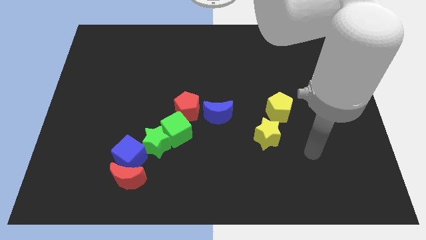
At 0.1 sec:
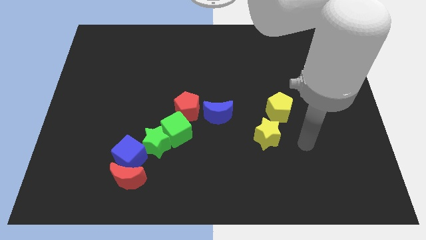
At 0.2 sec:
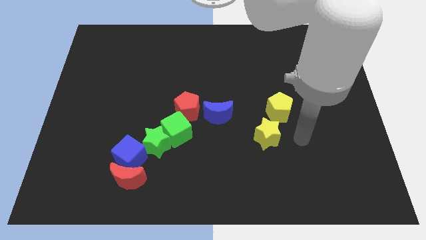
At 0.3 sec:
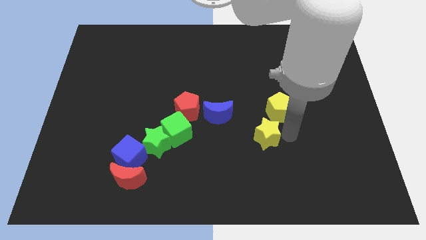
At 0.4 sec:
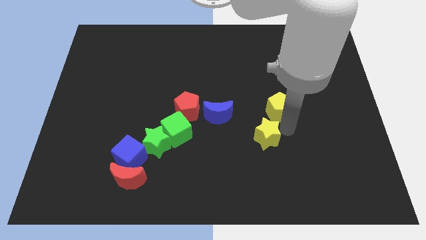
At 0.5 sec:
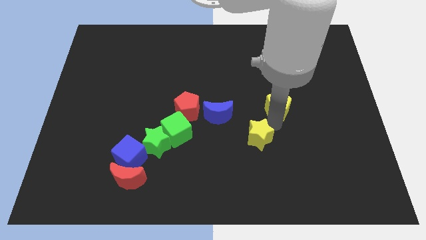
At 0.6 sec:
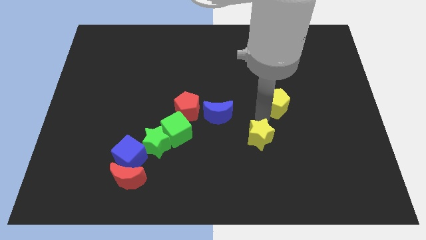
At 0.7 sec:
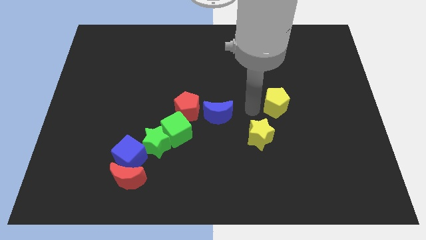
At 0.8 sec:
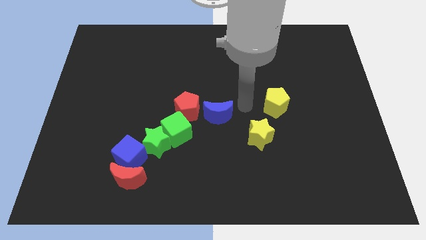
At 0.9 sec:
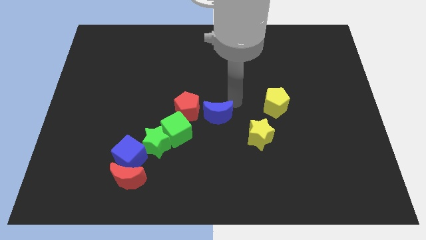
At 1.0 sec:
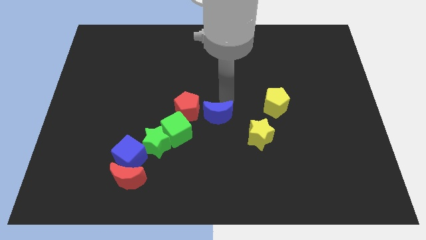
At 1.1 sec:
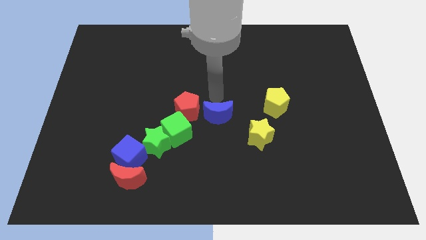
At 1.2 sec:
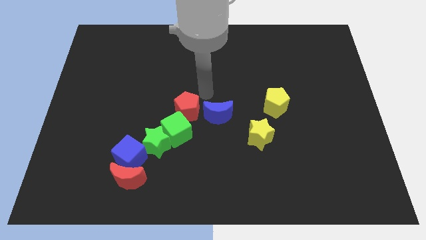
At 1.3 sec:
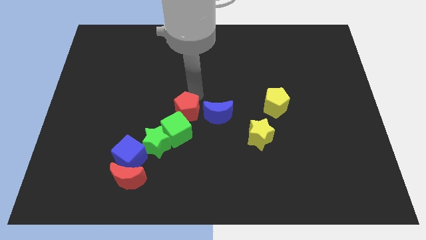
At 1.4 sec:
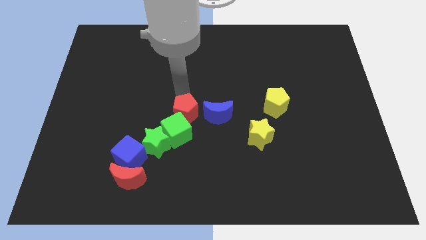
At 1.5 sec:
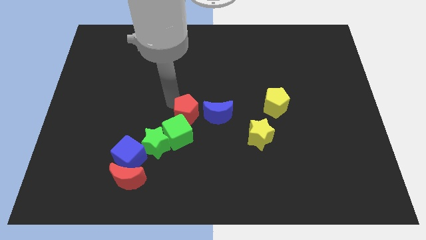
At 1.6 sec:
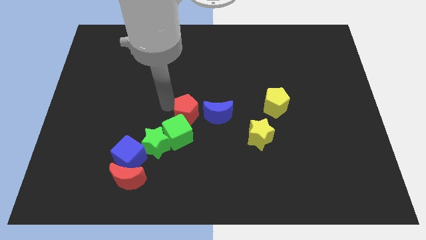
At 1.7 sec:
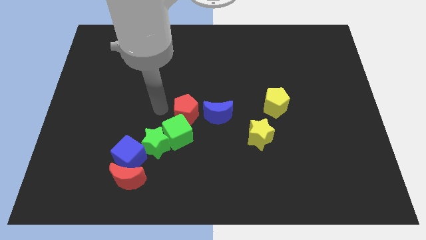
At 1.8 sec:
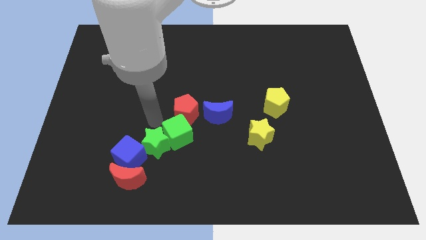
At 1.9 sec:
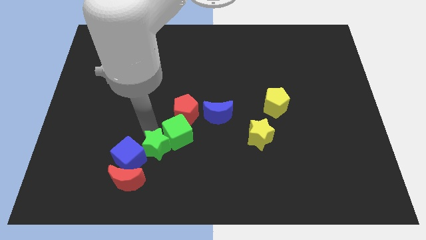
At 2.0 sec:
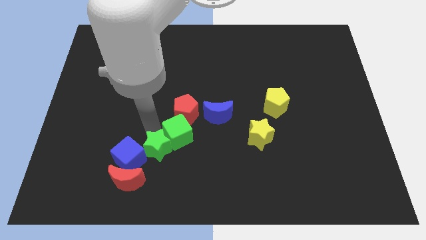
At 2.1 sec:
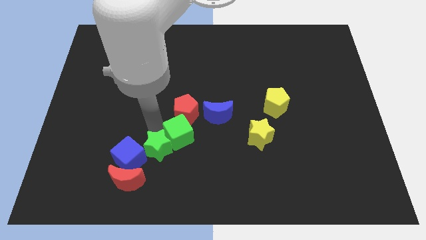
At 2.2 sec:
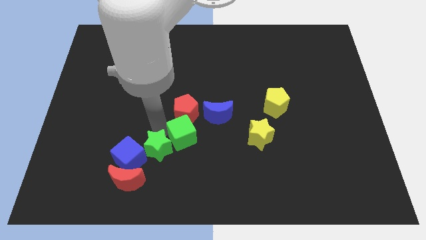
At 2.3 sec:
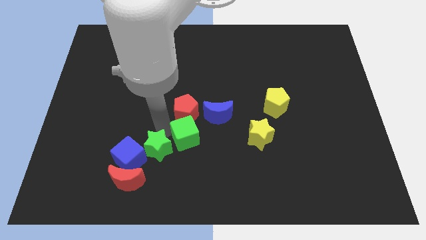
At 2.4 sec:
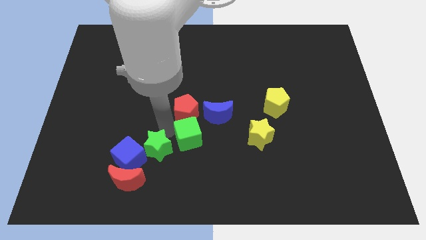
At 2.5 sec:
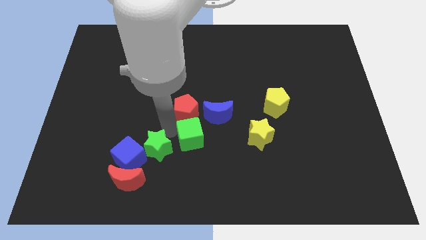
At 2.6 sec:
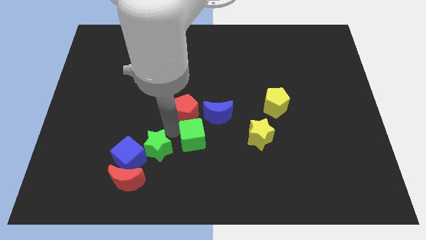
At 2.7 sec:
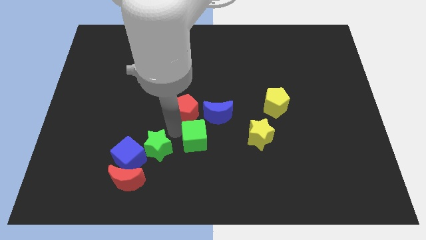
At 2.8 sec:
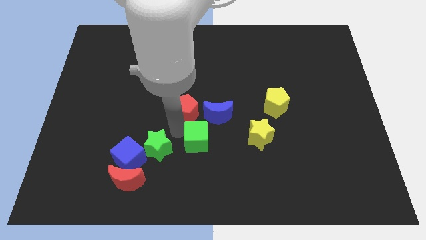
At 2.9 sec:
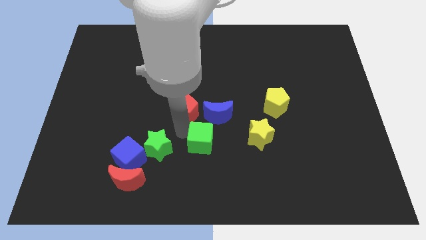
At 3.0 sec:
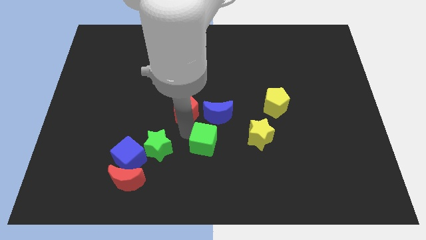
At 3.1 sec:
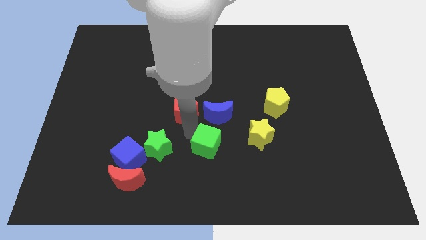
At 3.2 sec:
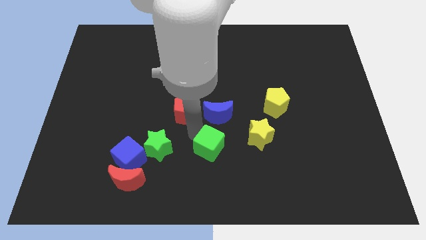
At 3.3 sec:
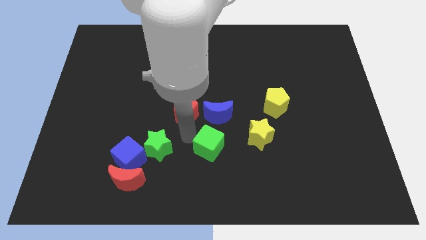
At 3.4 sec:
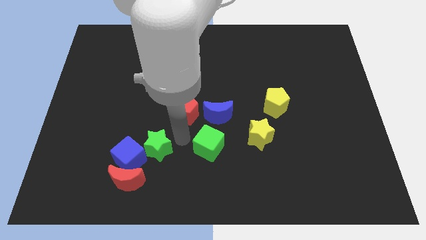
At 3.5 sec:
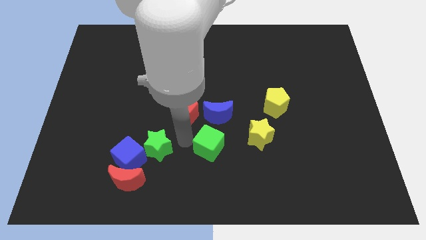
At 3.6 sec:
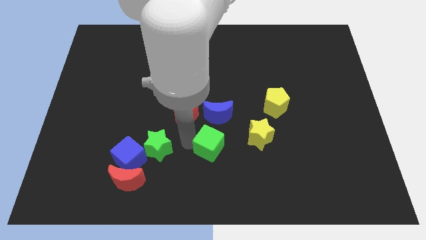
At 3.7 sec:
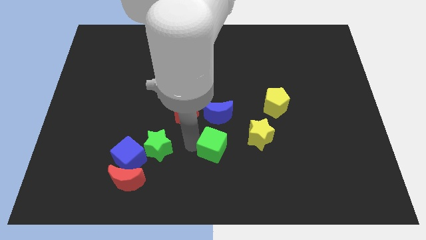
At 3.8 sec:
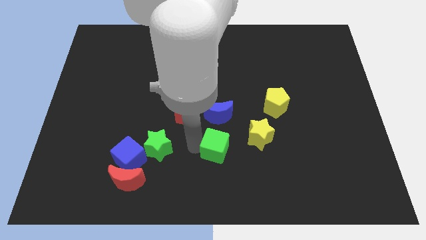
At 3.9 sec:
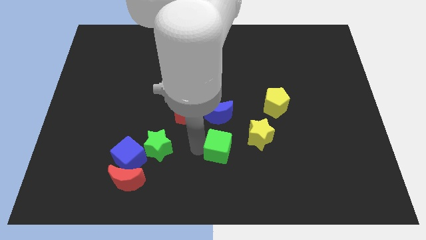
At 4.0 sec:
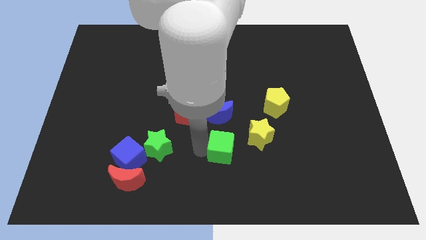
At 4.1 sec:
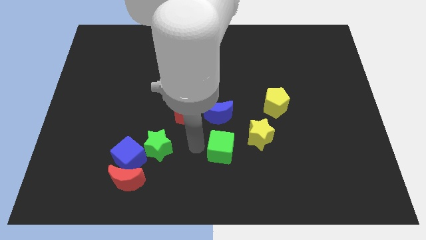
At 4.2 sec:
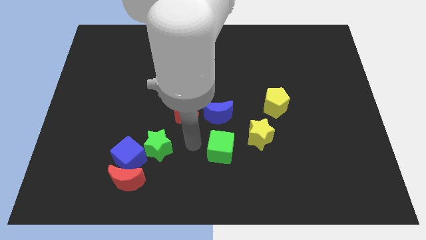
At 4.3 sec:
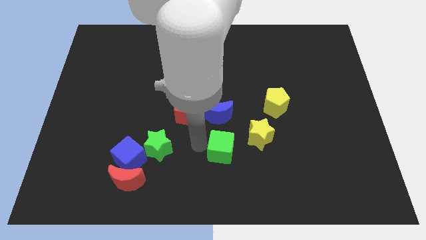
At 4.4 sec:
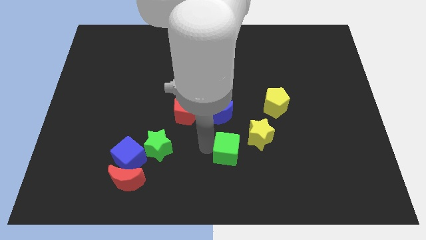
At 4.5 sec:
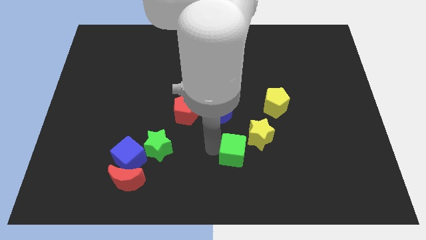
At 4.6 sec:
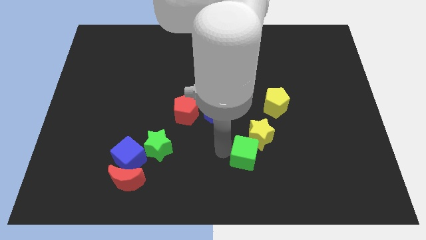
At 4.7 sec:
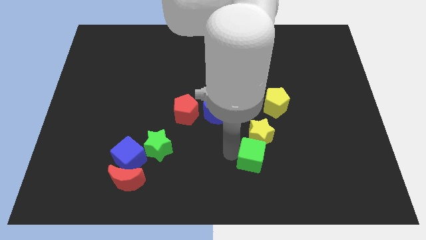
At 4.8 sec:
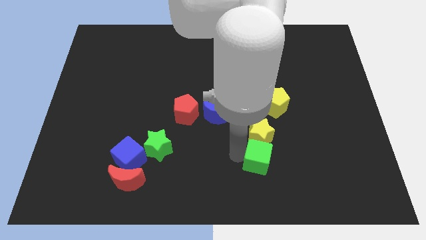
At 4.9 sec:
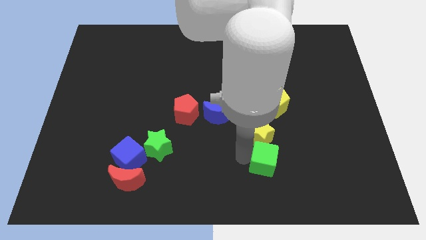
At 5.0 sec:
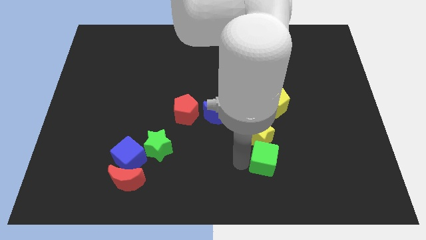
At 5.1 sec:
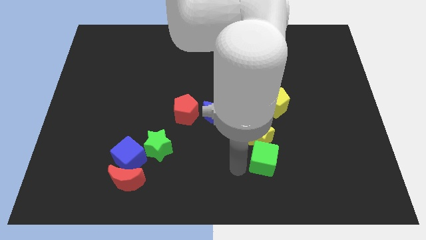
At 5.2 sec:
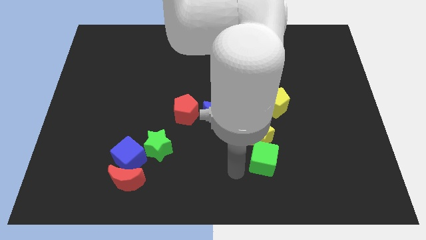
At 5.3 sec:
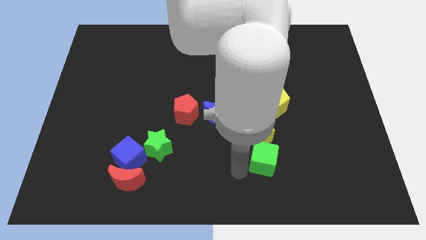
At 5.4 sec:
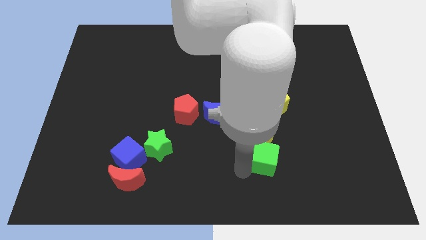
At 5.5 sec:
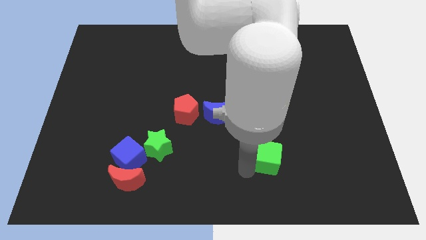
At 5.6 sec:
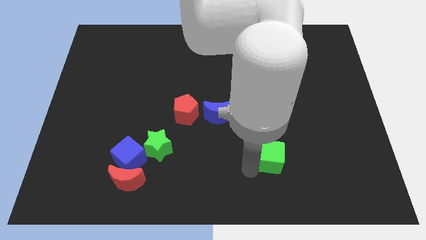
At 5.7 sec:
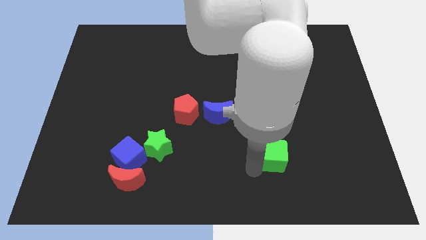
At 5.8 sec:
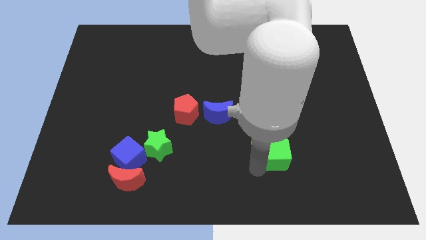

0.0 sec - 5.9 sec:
move the green cube to the right

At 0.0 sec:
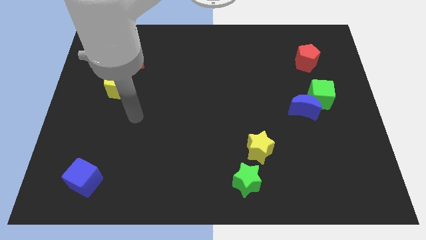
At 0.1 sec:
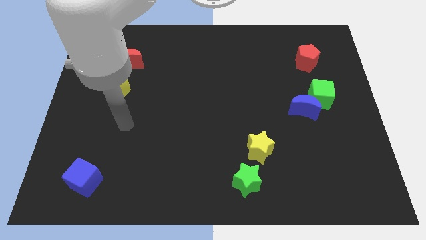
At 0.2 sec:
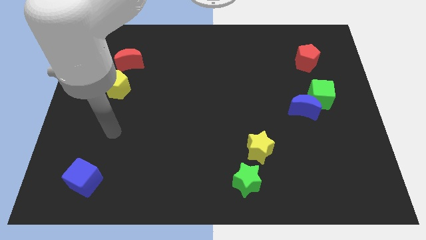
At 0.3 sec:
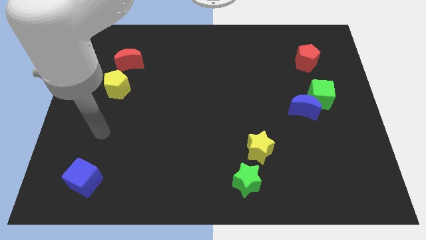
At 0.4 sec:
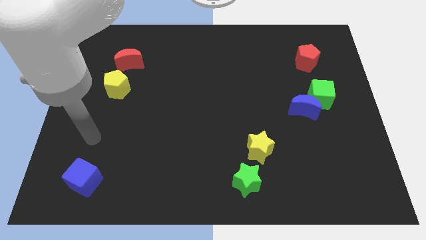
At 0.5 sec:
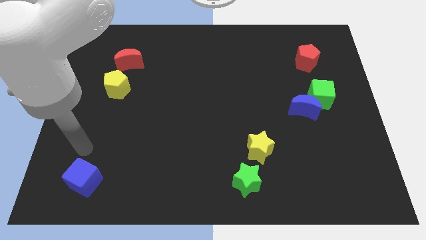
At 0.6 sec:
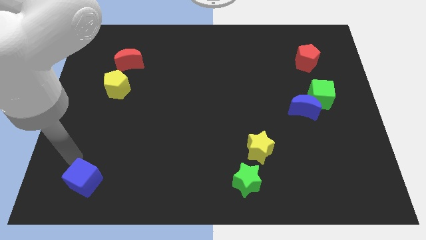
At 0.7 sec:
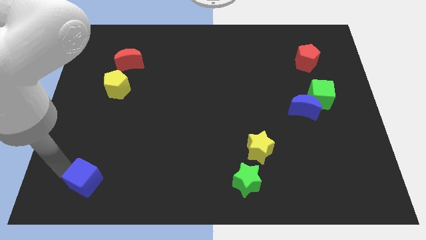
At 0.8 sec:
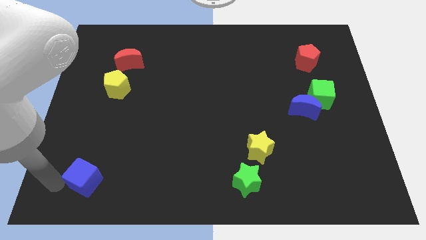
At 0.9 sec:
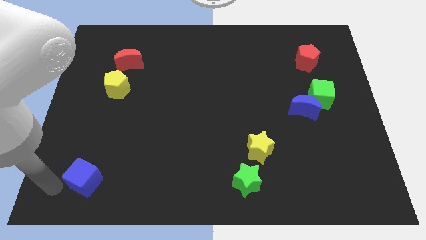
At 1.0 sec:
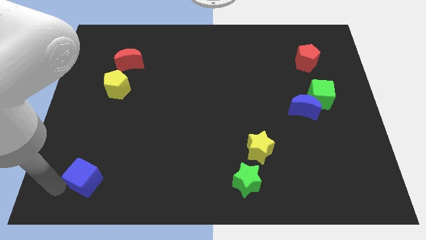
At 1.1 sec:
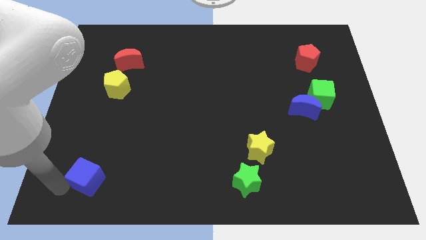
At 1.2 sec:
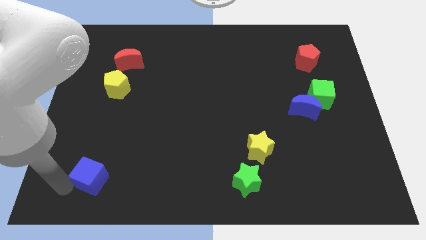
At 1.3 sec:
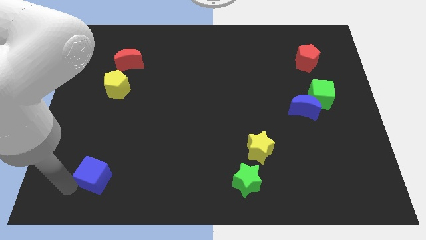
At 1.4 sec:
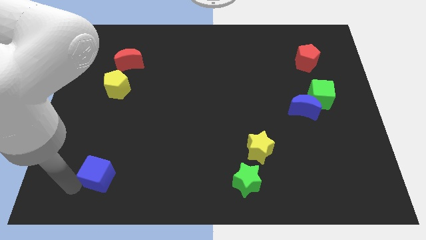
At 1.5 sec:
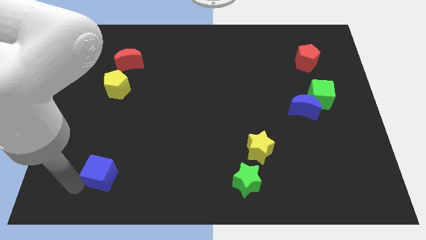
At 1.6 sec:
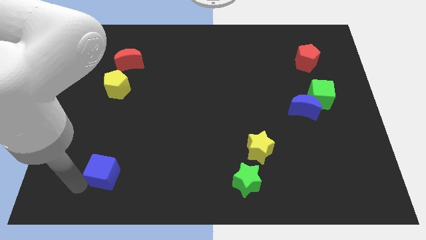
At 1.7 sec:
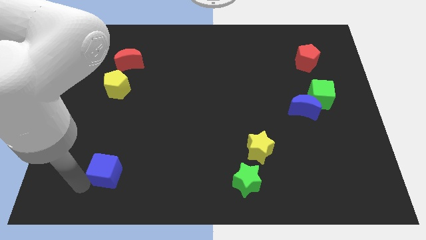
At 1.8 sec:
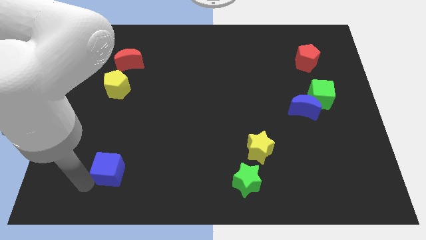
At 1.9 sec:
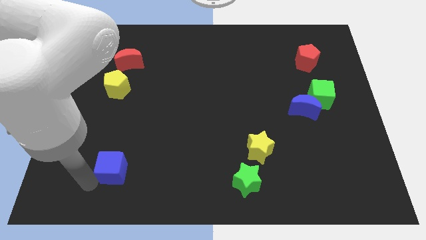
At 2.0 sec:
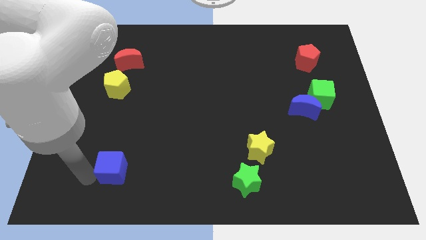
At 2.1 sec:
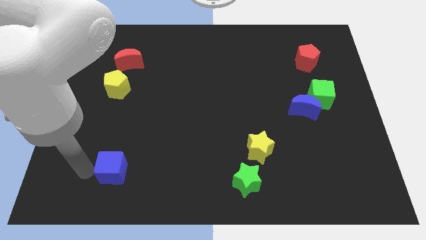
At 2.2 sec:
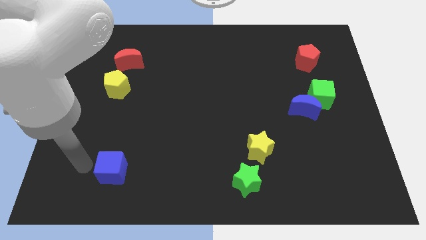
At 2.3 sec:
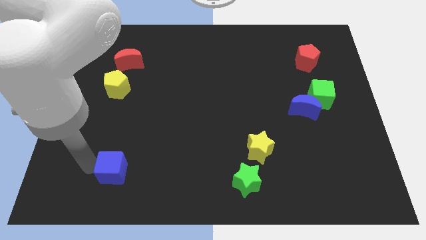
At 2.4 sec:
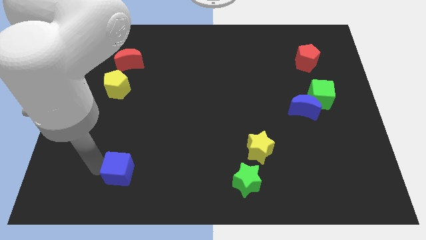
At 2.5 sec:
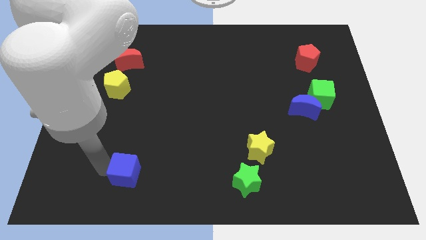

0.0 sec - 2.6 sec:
push the blue cube right a little bit
